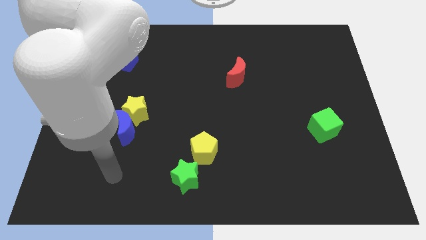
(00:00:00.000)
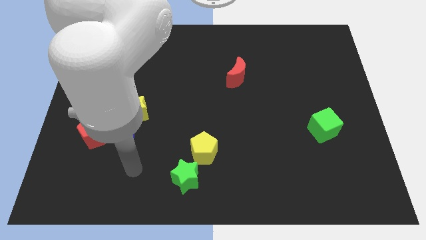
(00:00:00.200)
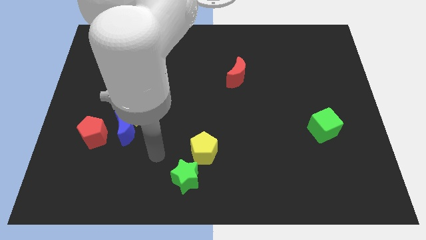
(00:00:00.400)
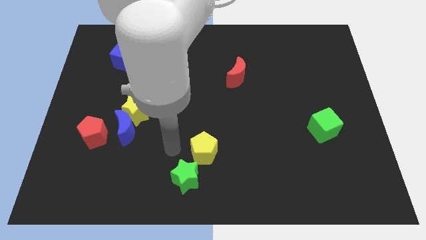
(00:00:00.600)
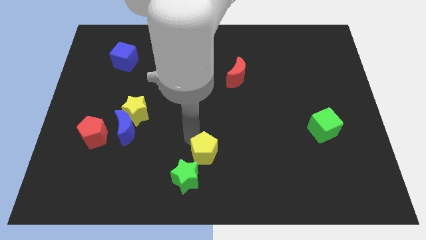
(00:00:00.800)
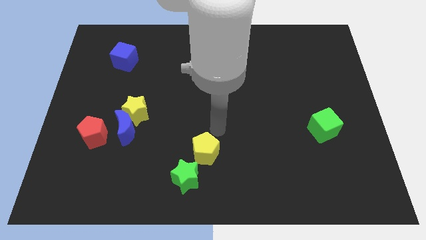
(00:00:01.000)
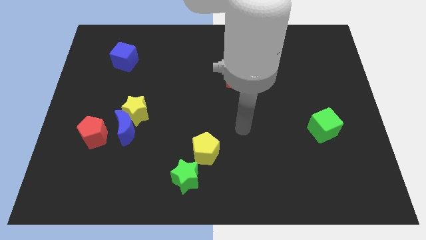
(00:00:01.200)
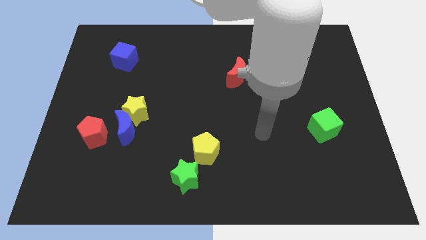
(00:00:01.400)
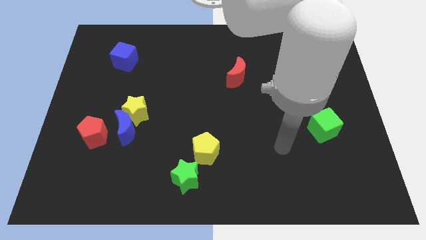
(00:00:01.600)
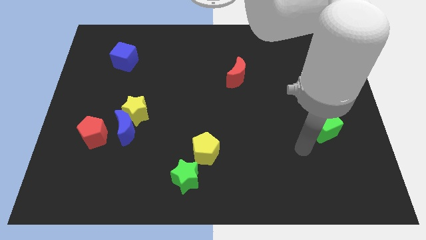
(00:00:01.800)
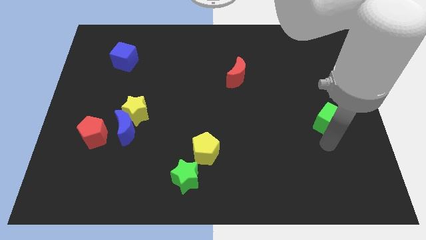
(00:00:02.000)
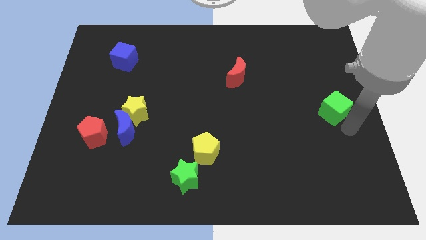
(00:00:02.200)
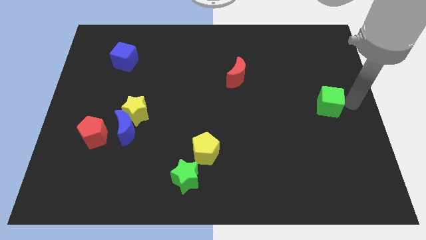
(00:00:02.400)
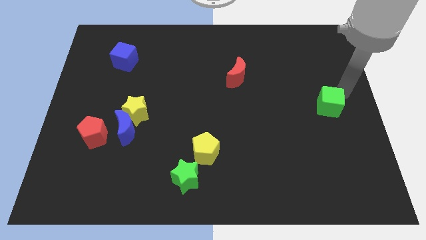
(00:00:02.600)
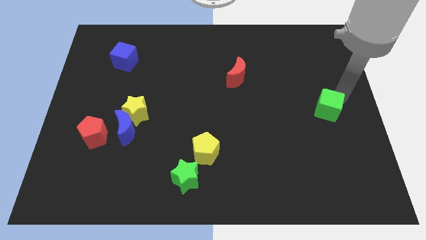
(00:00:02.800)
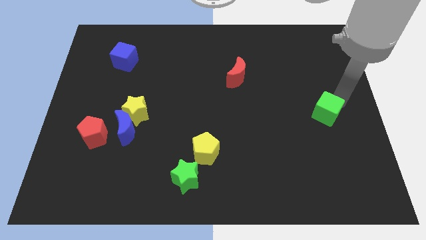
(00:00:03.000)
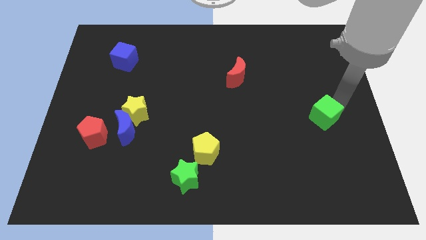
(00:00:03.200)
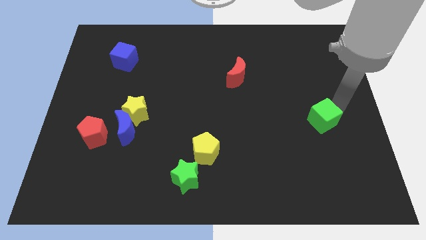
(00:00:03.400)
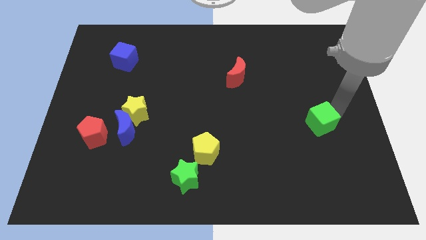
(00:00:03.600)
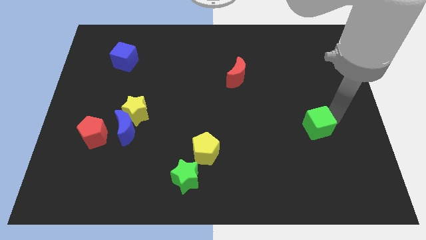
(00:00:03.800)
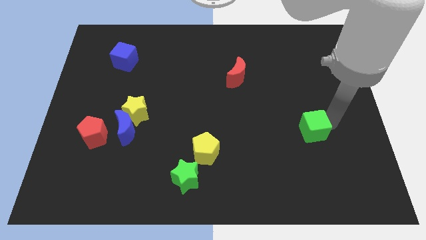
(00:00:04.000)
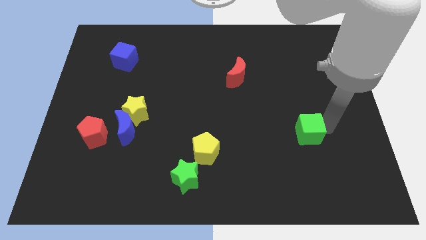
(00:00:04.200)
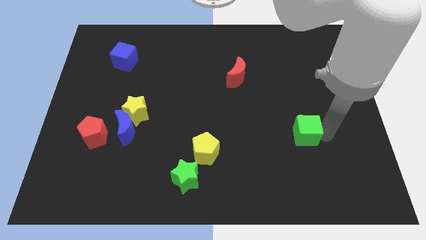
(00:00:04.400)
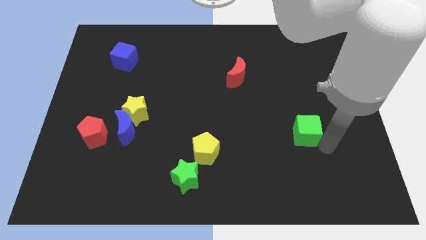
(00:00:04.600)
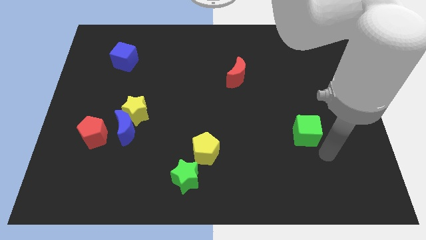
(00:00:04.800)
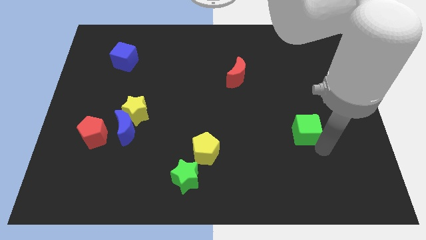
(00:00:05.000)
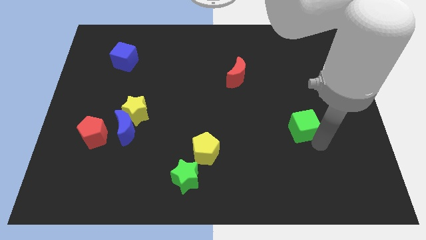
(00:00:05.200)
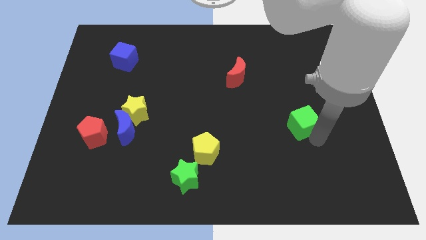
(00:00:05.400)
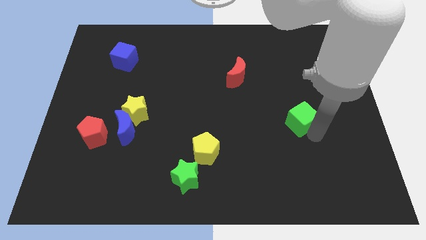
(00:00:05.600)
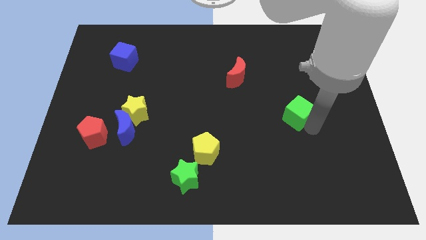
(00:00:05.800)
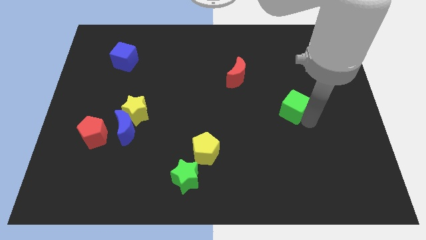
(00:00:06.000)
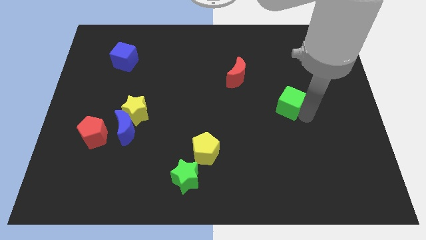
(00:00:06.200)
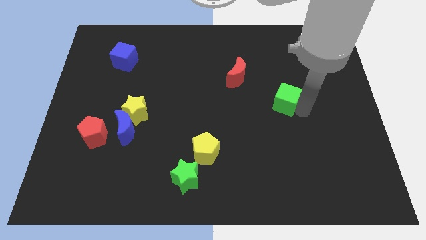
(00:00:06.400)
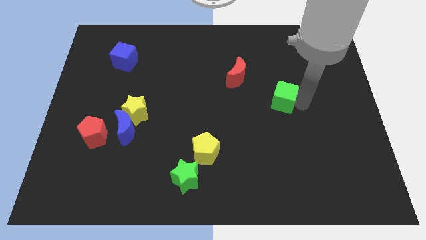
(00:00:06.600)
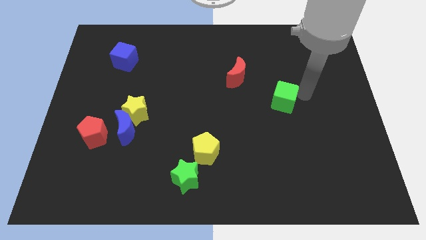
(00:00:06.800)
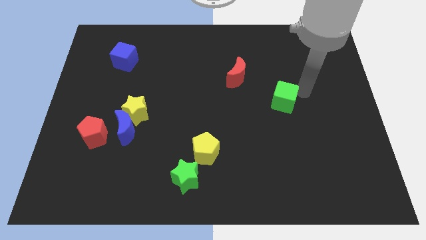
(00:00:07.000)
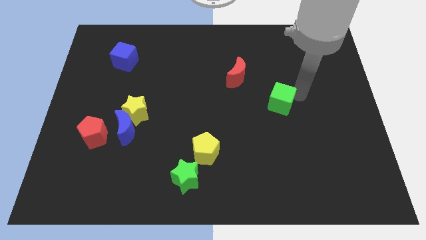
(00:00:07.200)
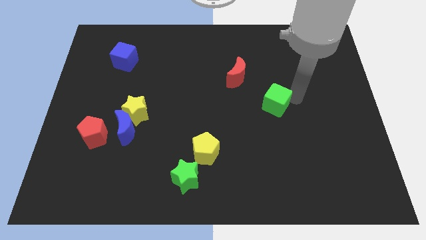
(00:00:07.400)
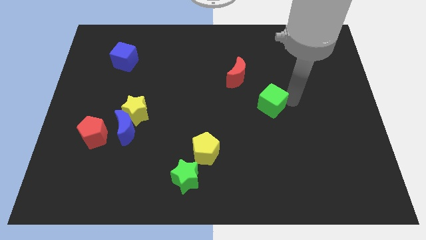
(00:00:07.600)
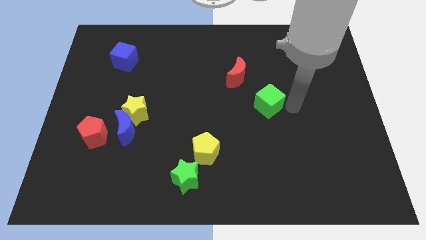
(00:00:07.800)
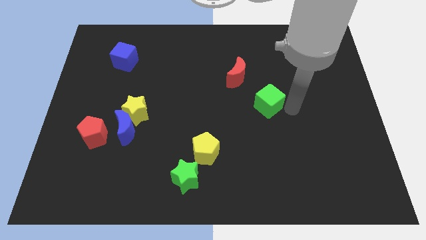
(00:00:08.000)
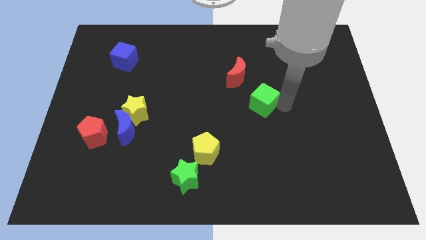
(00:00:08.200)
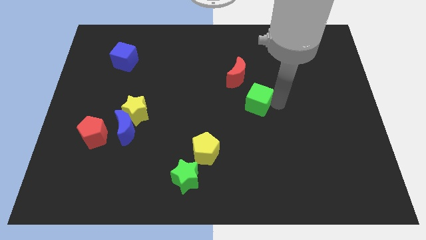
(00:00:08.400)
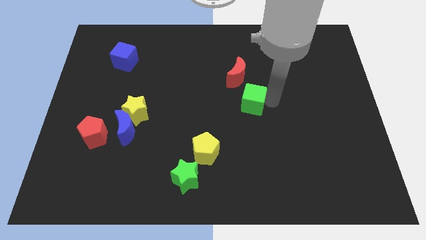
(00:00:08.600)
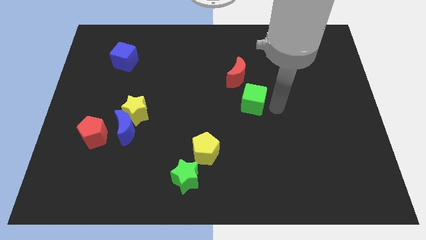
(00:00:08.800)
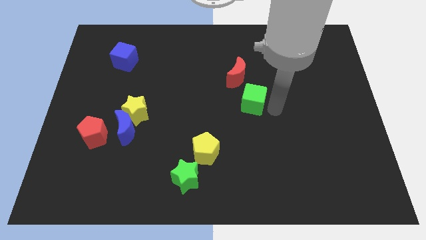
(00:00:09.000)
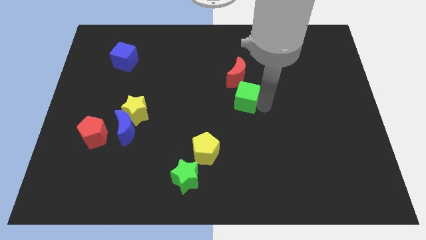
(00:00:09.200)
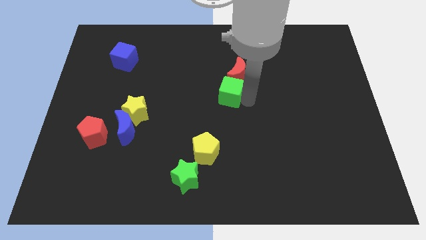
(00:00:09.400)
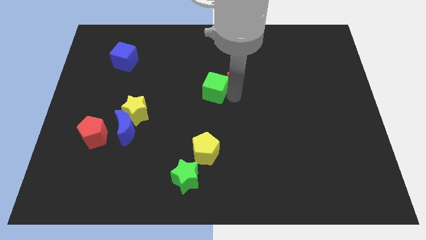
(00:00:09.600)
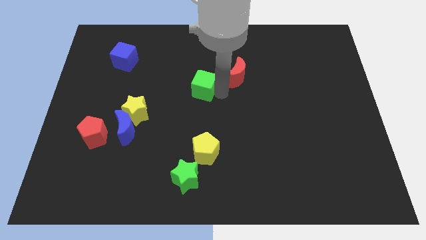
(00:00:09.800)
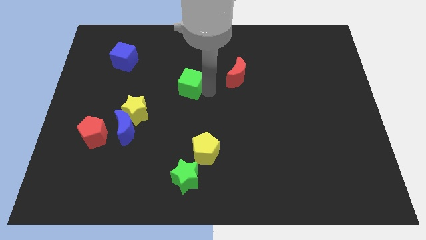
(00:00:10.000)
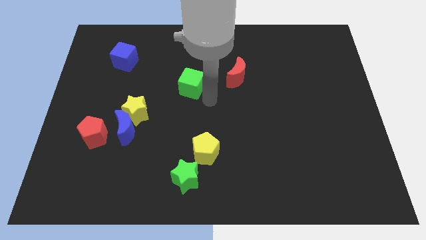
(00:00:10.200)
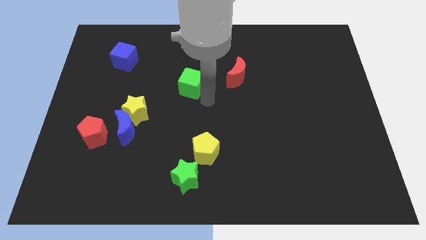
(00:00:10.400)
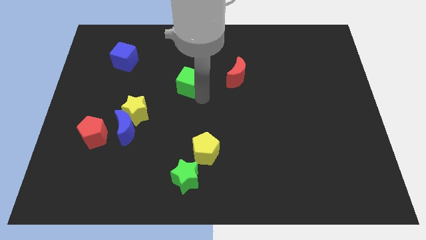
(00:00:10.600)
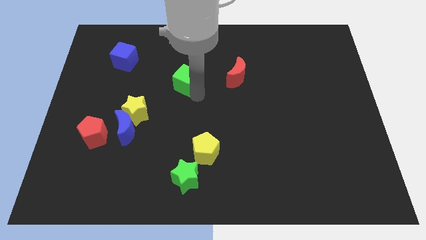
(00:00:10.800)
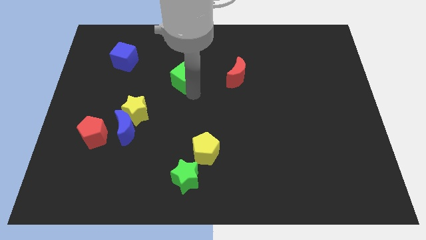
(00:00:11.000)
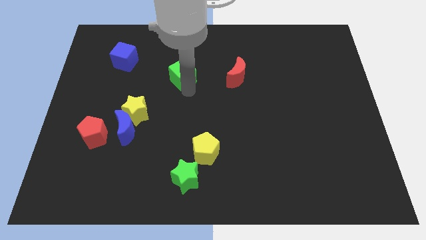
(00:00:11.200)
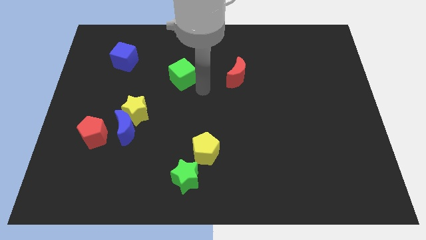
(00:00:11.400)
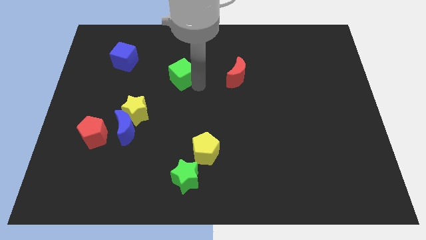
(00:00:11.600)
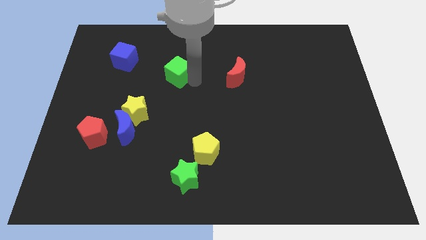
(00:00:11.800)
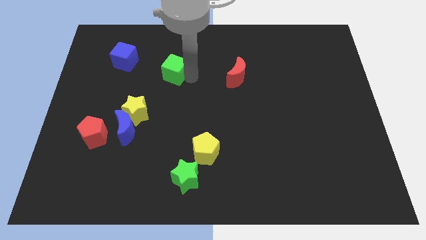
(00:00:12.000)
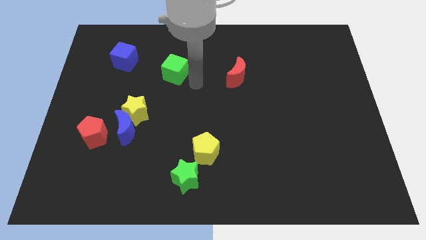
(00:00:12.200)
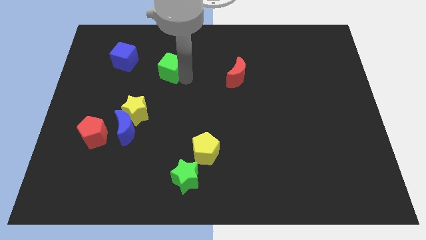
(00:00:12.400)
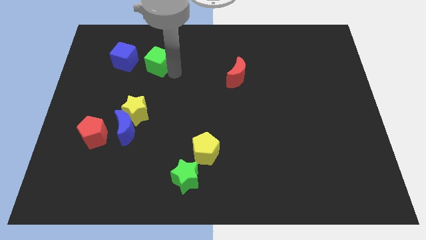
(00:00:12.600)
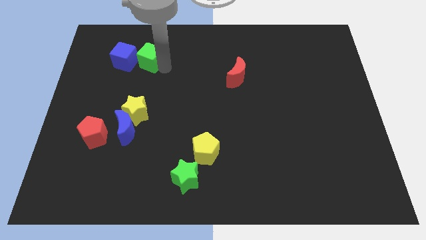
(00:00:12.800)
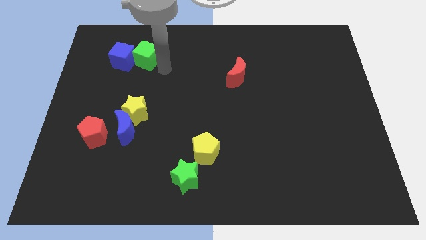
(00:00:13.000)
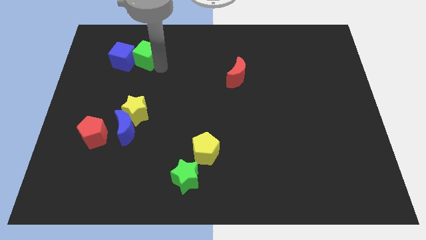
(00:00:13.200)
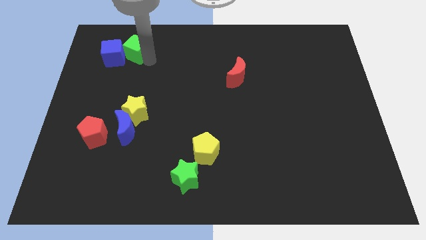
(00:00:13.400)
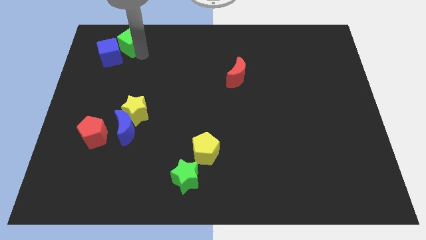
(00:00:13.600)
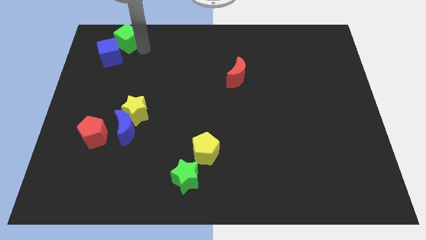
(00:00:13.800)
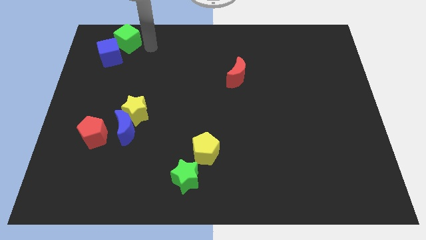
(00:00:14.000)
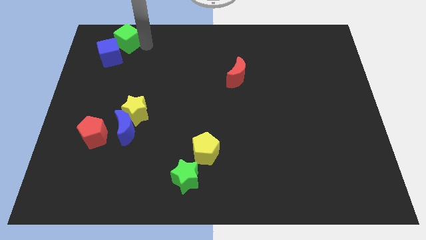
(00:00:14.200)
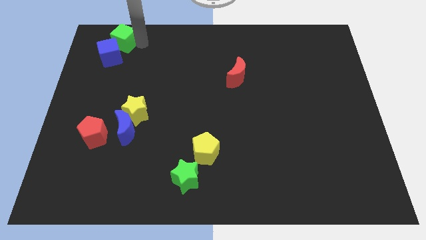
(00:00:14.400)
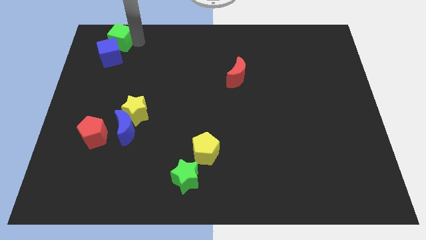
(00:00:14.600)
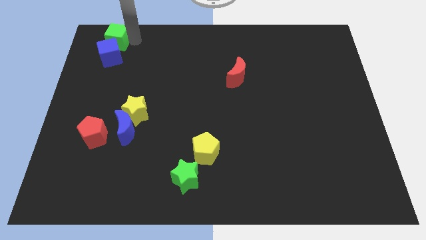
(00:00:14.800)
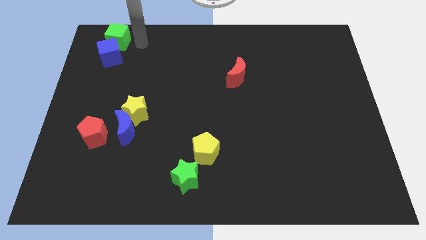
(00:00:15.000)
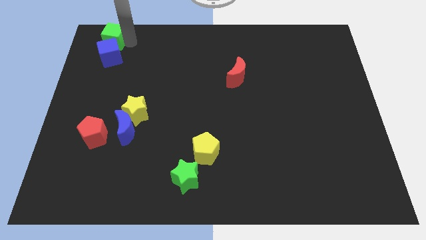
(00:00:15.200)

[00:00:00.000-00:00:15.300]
push the green cube to the top left corner
